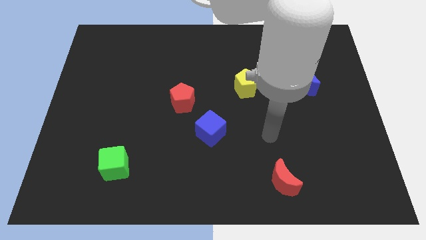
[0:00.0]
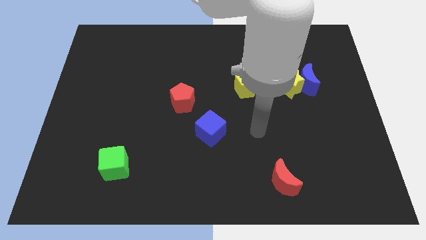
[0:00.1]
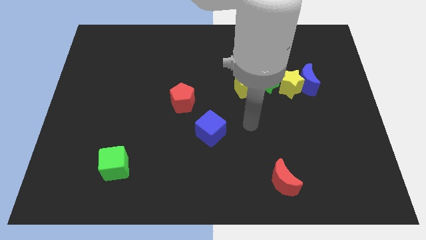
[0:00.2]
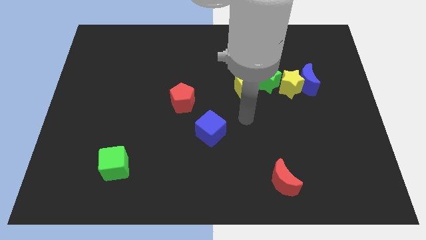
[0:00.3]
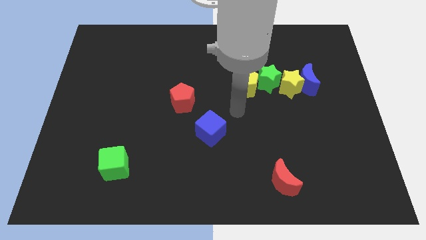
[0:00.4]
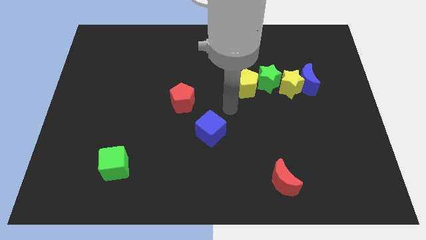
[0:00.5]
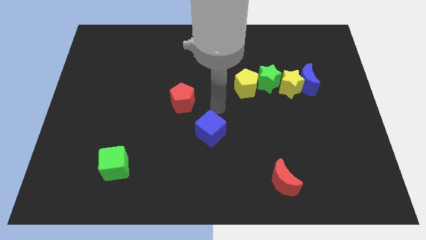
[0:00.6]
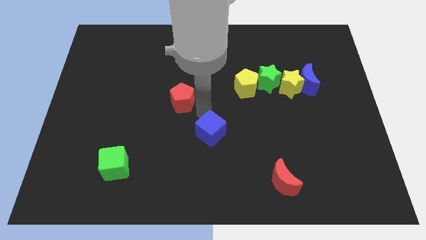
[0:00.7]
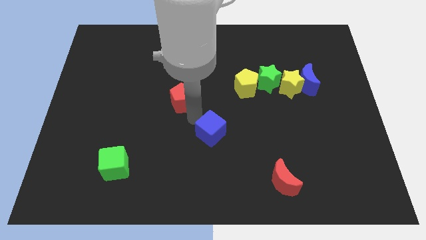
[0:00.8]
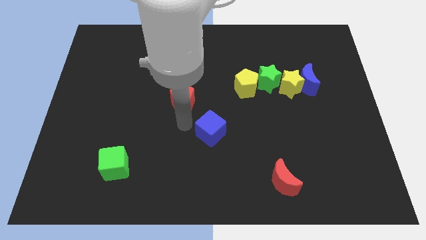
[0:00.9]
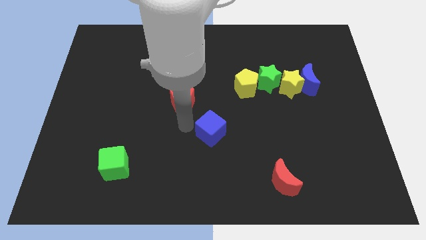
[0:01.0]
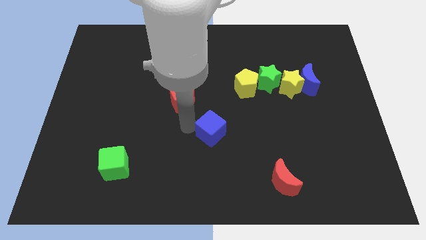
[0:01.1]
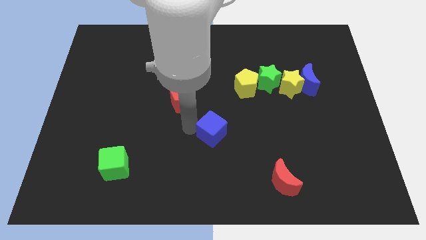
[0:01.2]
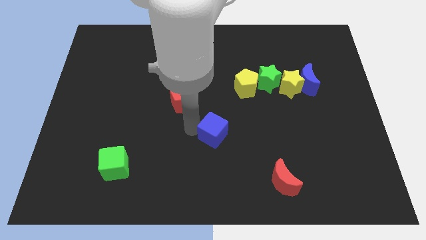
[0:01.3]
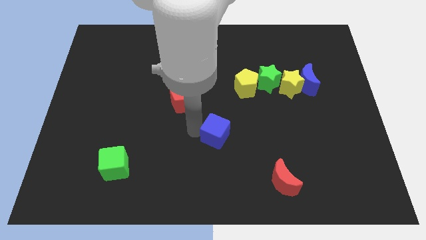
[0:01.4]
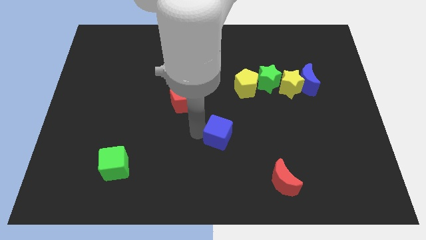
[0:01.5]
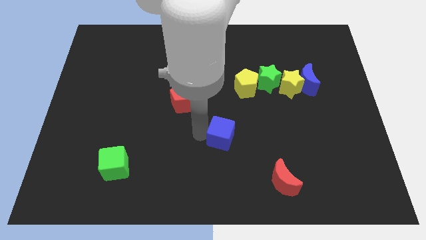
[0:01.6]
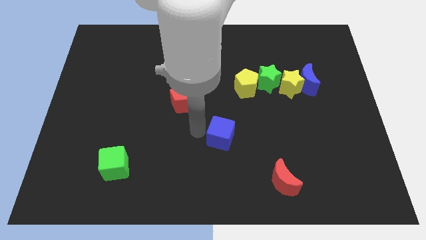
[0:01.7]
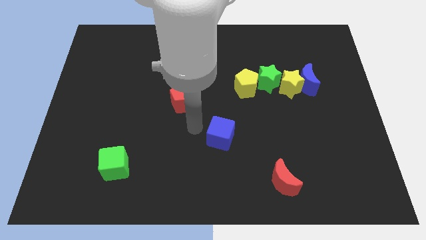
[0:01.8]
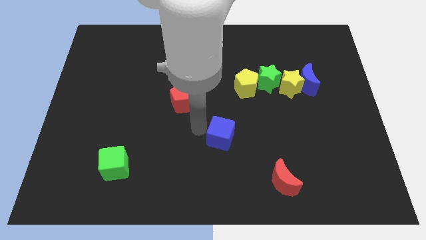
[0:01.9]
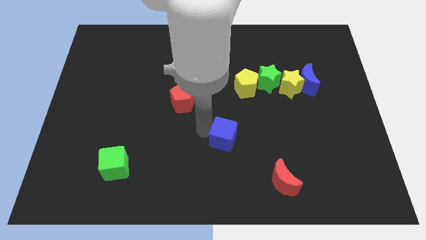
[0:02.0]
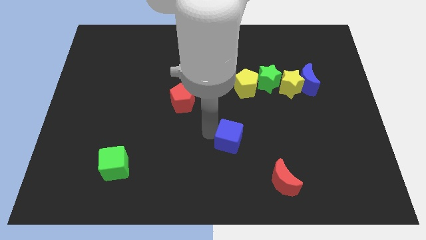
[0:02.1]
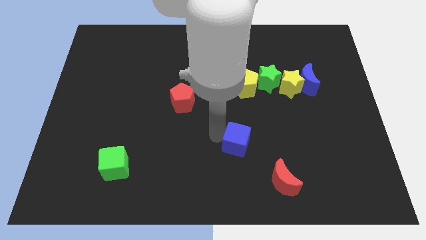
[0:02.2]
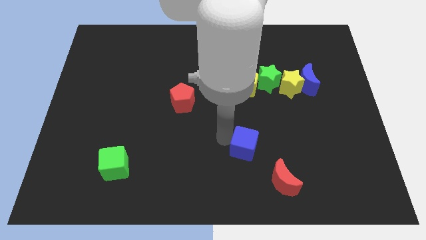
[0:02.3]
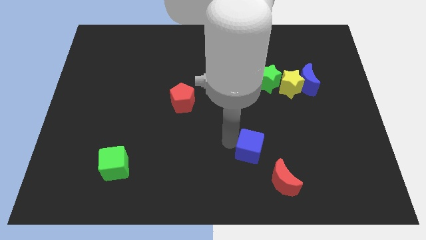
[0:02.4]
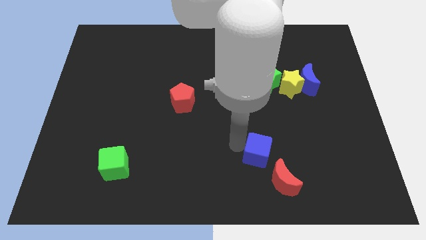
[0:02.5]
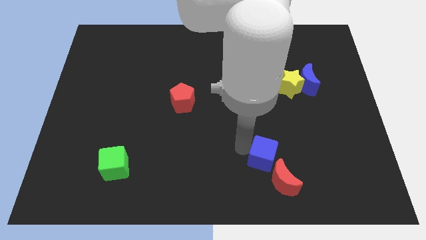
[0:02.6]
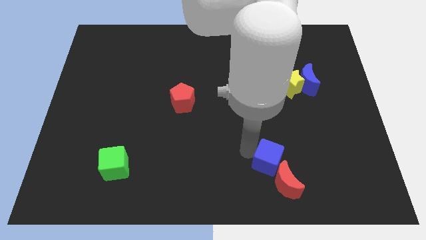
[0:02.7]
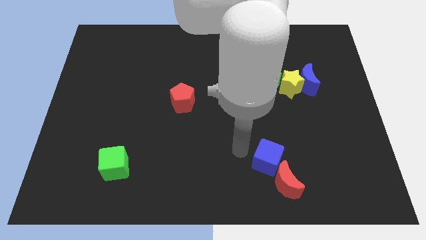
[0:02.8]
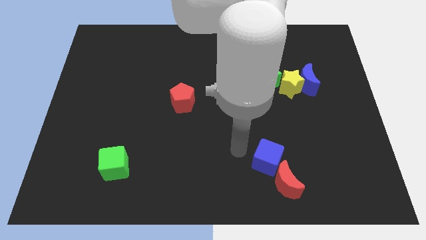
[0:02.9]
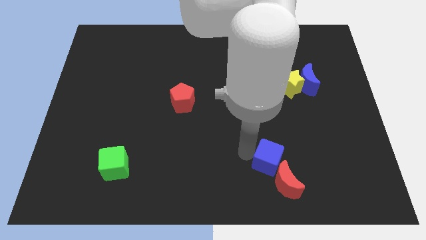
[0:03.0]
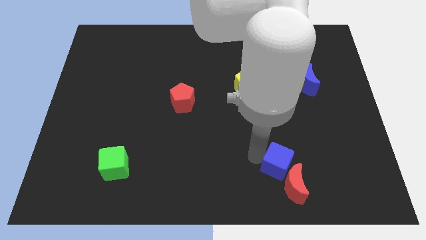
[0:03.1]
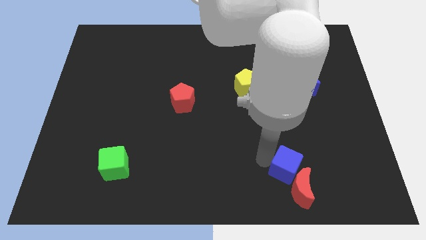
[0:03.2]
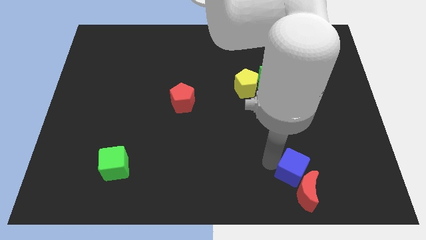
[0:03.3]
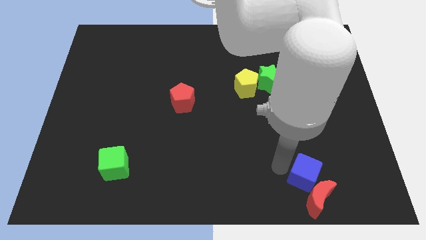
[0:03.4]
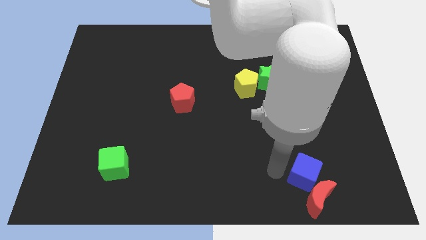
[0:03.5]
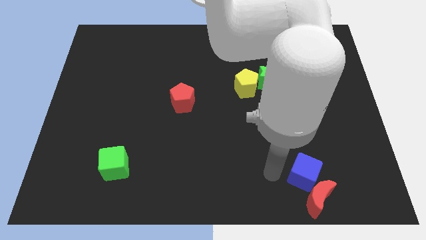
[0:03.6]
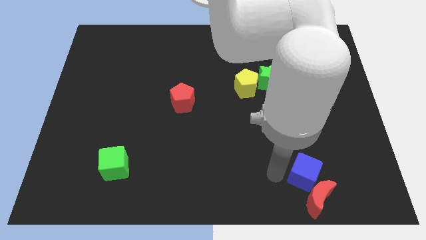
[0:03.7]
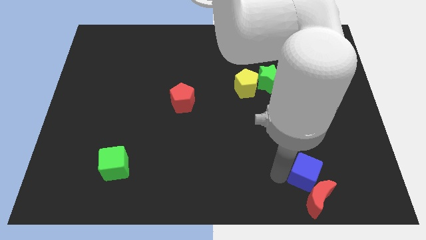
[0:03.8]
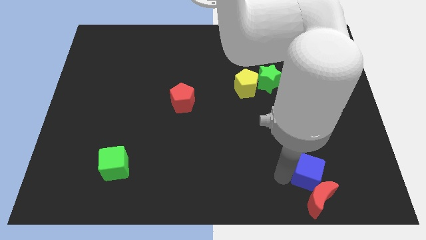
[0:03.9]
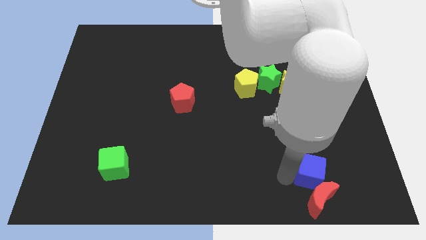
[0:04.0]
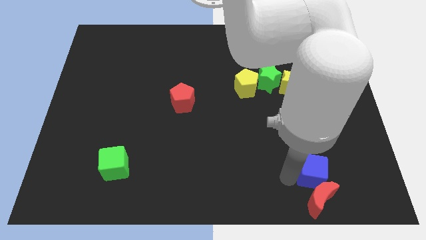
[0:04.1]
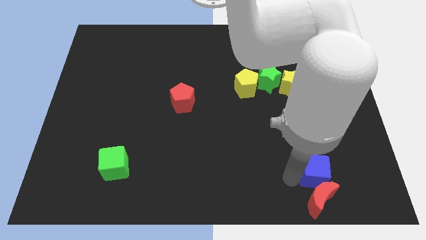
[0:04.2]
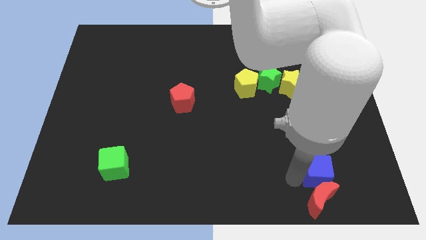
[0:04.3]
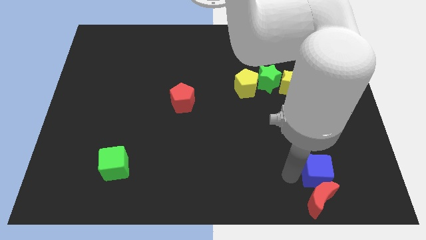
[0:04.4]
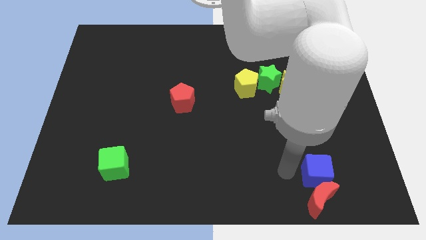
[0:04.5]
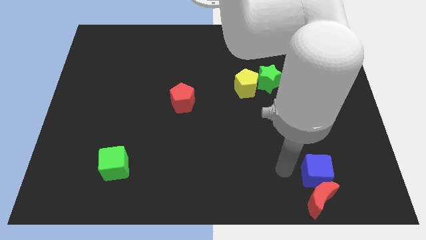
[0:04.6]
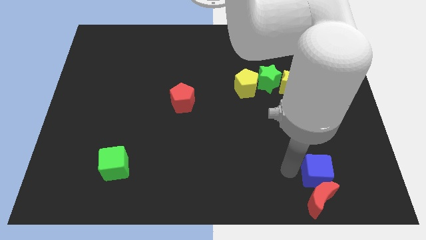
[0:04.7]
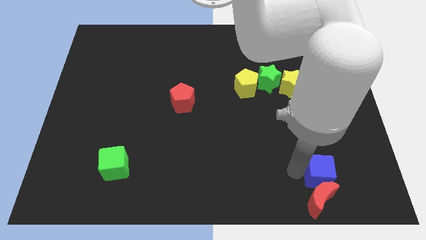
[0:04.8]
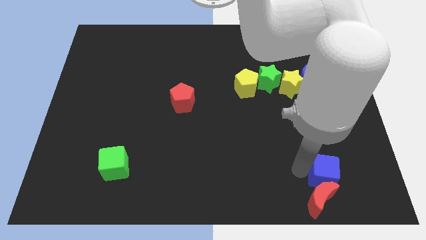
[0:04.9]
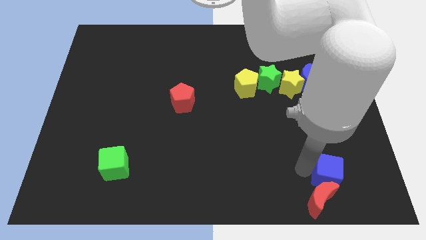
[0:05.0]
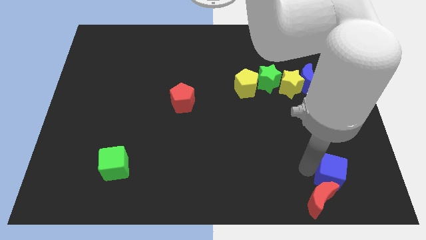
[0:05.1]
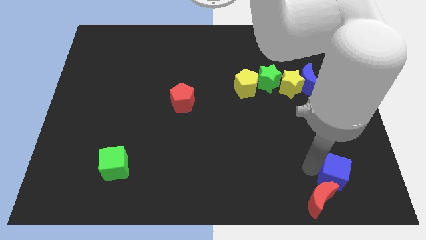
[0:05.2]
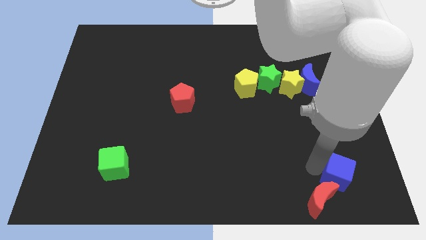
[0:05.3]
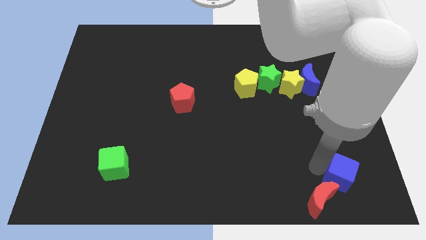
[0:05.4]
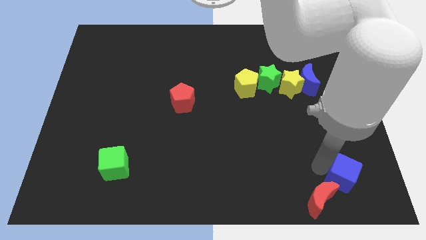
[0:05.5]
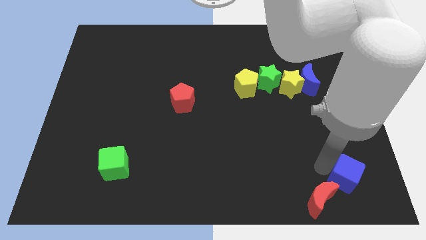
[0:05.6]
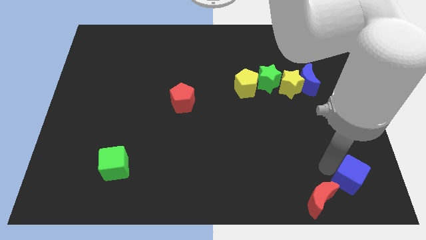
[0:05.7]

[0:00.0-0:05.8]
push the blue cube to the bottom right

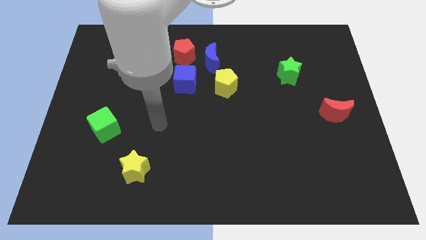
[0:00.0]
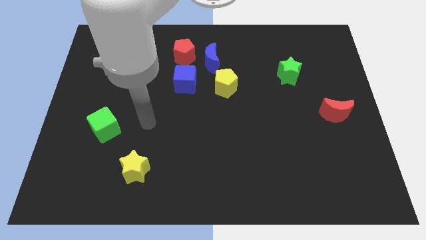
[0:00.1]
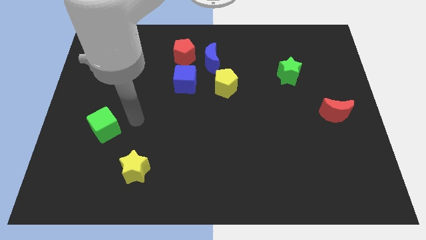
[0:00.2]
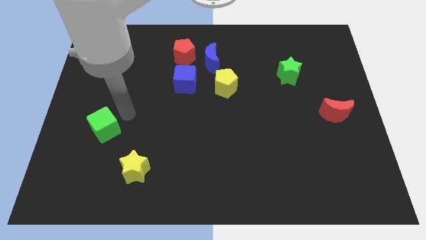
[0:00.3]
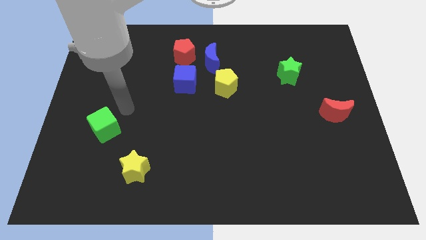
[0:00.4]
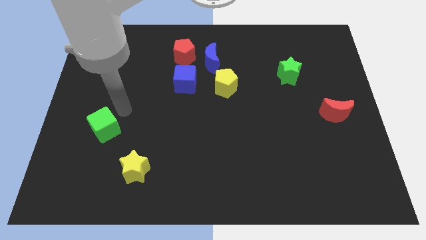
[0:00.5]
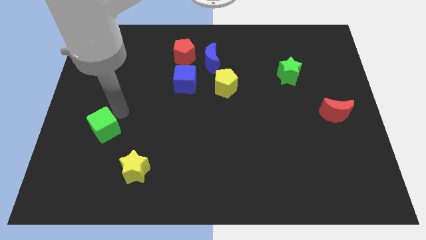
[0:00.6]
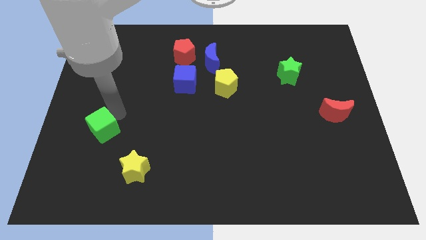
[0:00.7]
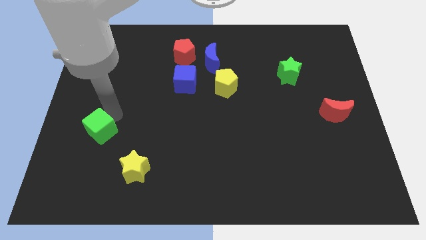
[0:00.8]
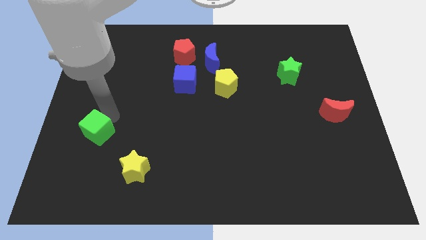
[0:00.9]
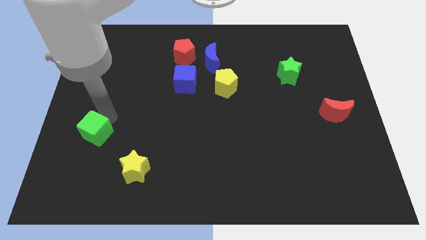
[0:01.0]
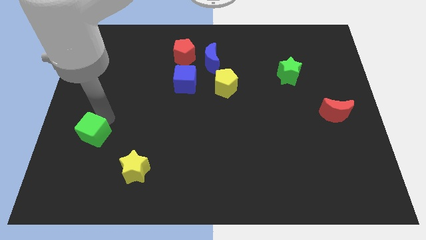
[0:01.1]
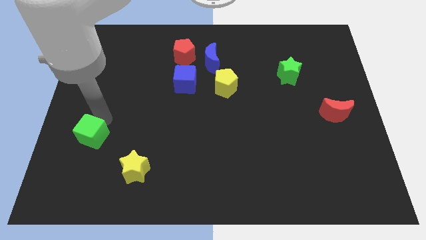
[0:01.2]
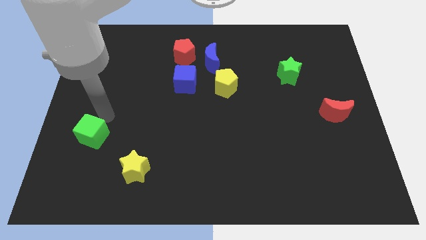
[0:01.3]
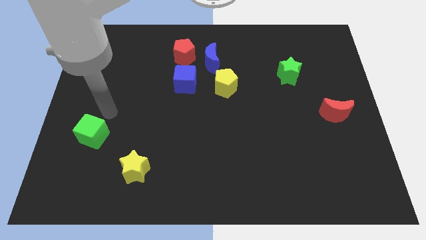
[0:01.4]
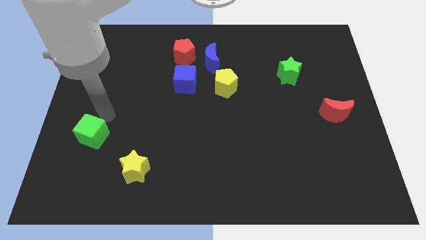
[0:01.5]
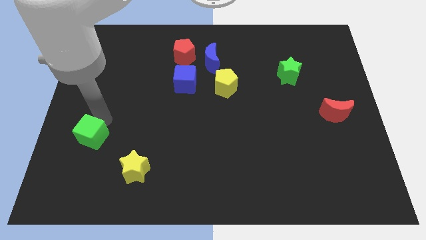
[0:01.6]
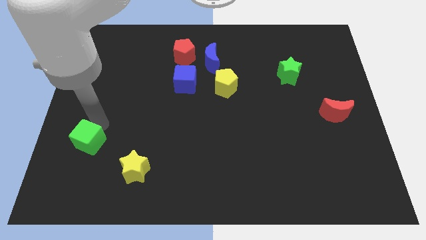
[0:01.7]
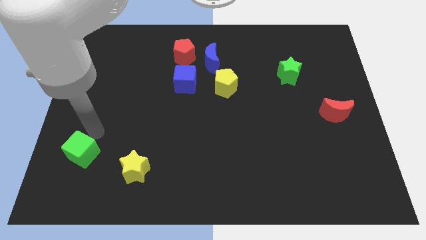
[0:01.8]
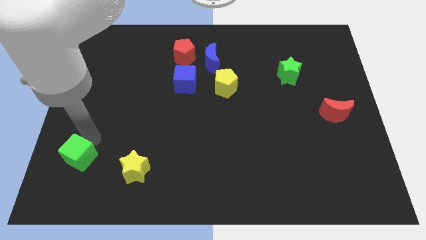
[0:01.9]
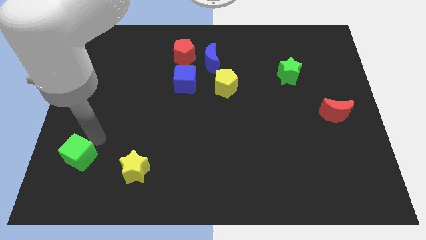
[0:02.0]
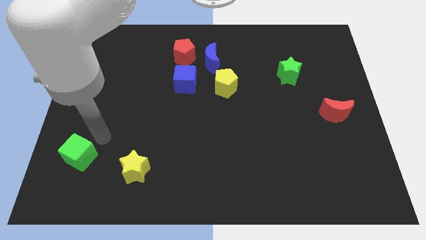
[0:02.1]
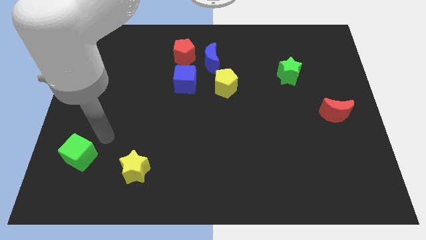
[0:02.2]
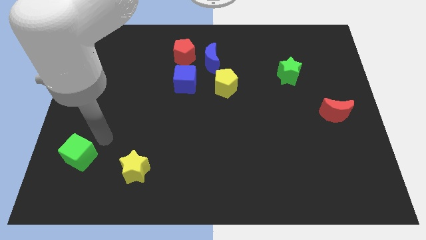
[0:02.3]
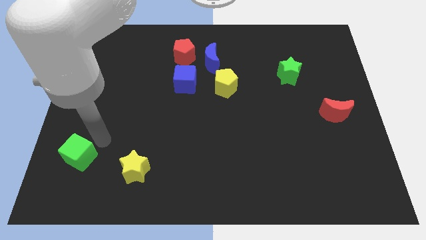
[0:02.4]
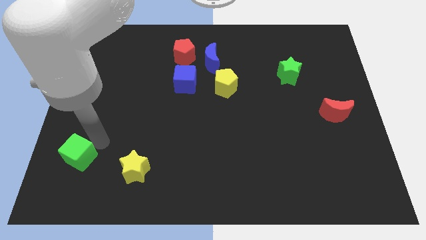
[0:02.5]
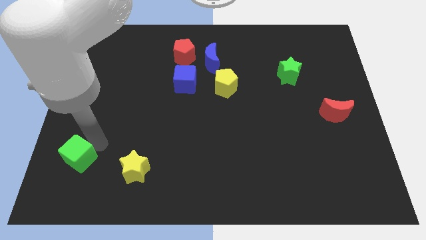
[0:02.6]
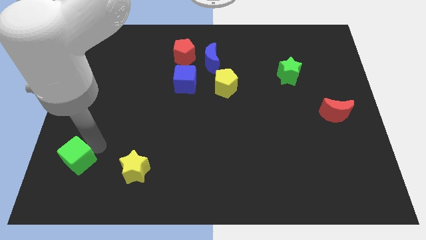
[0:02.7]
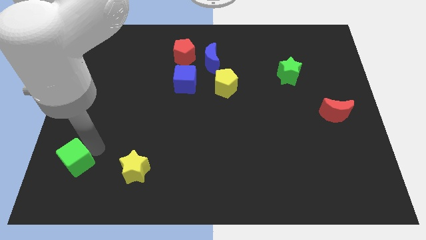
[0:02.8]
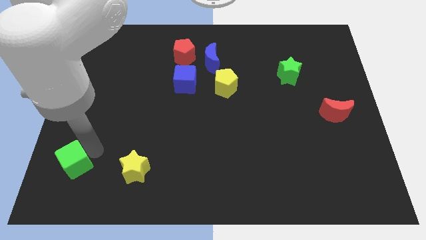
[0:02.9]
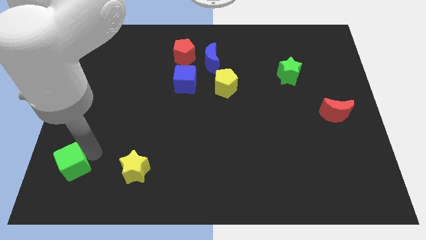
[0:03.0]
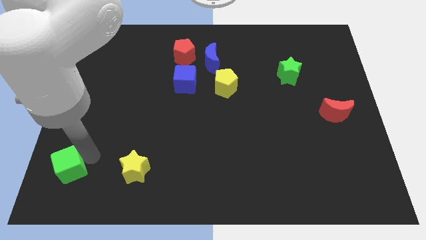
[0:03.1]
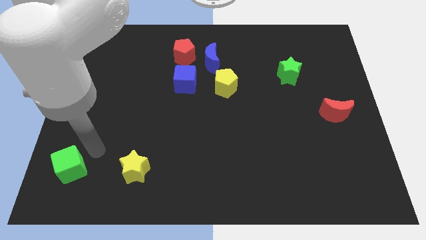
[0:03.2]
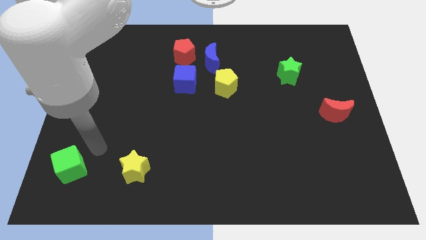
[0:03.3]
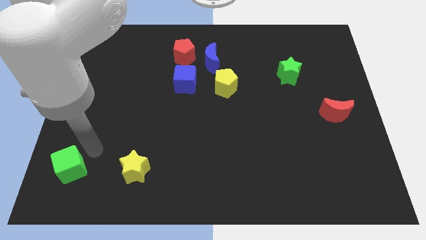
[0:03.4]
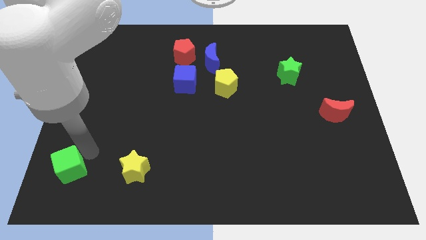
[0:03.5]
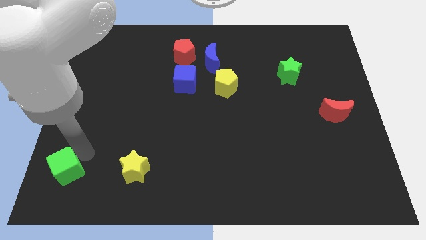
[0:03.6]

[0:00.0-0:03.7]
slide the green cube to the bottom left corner
